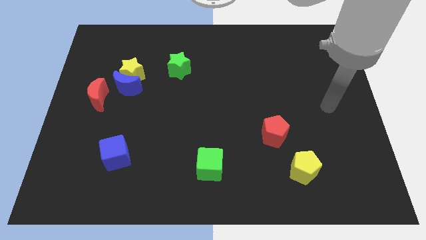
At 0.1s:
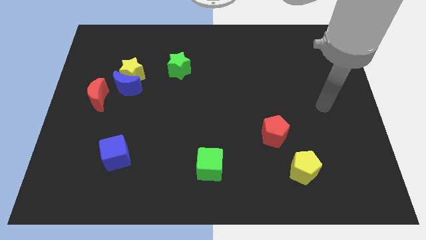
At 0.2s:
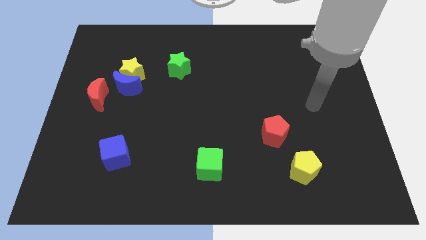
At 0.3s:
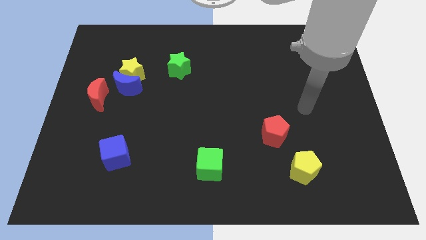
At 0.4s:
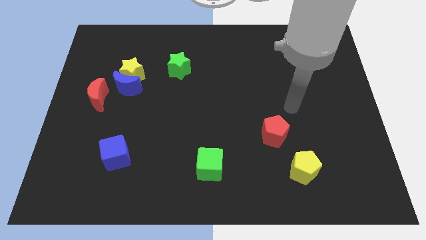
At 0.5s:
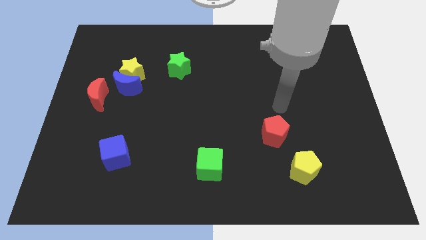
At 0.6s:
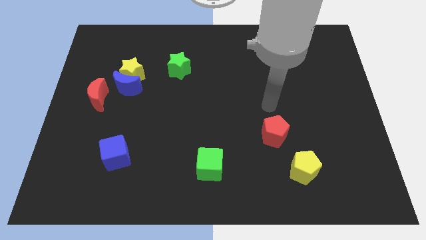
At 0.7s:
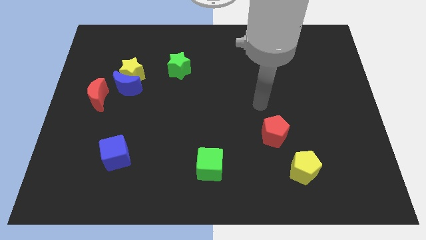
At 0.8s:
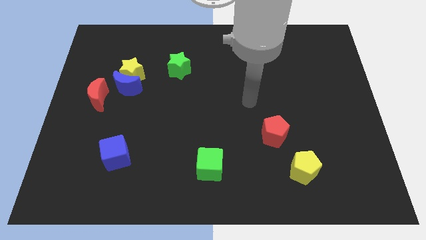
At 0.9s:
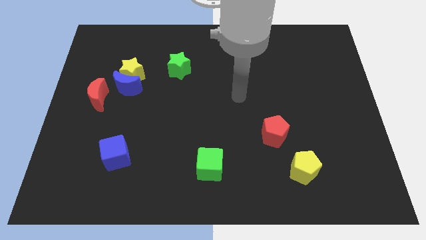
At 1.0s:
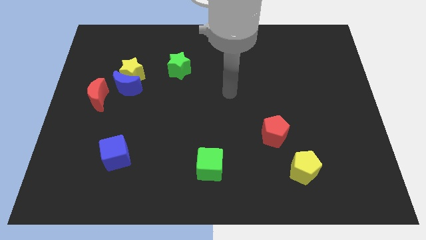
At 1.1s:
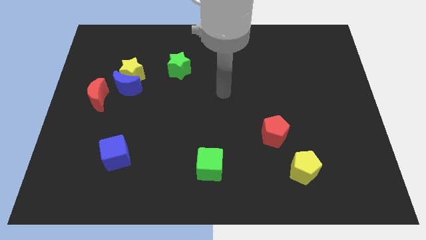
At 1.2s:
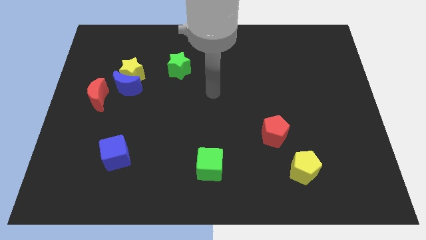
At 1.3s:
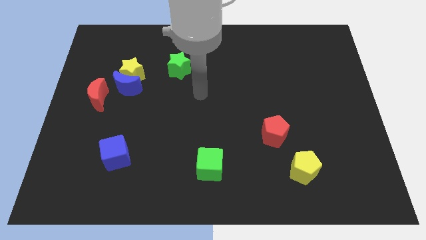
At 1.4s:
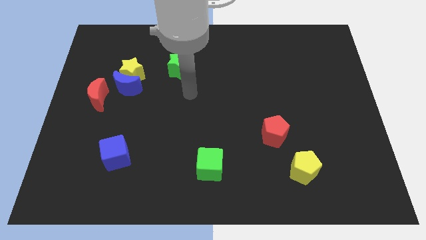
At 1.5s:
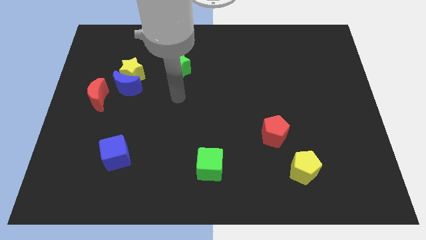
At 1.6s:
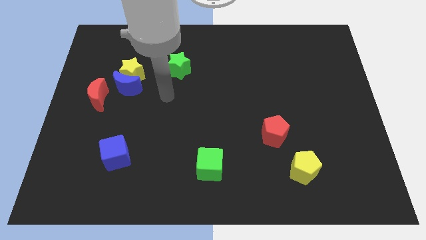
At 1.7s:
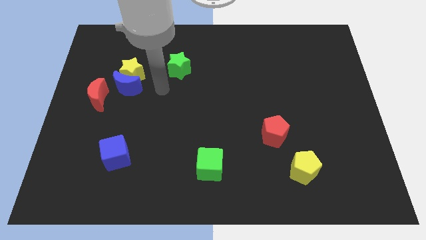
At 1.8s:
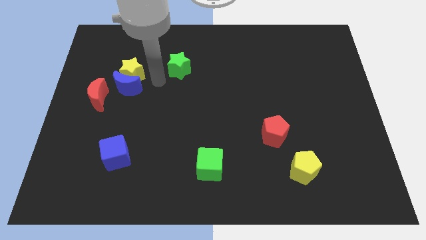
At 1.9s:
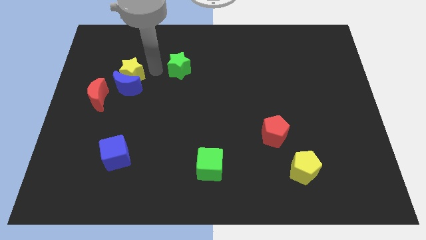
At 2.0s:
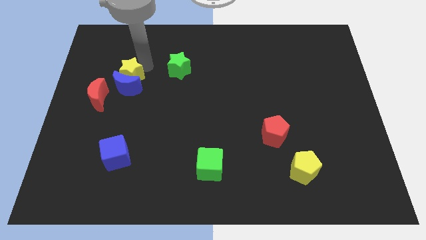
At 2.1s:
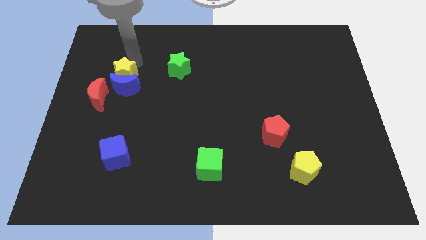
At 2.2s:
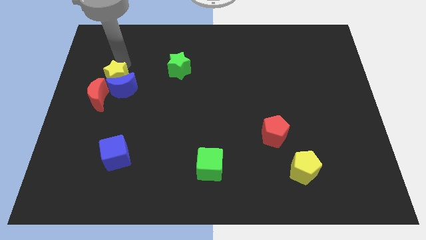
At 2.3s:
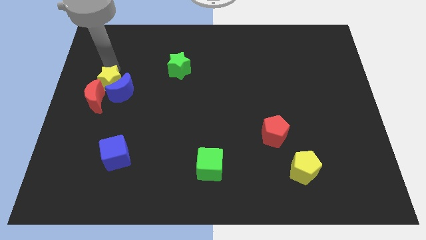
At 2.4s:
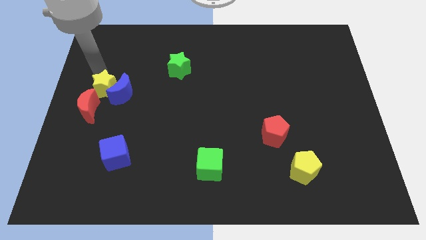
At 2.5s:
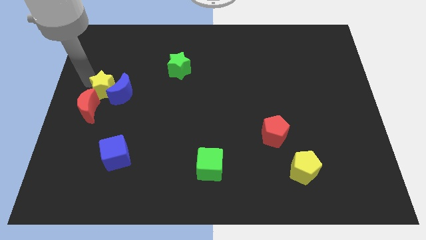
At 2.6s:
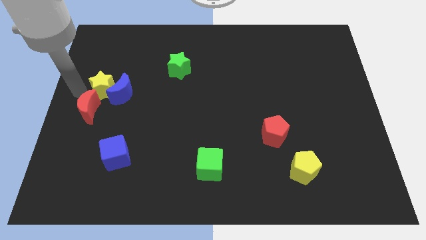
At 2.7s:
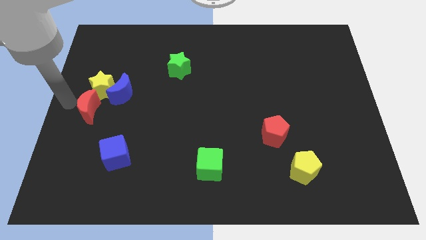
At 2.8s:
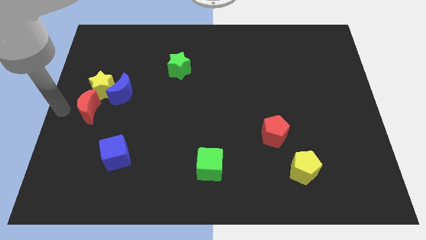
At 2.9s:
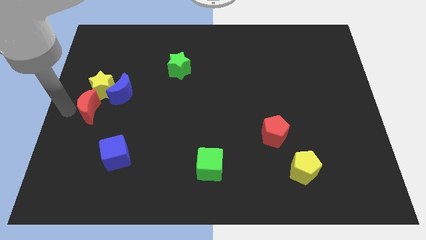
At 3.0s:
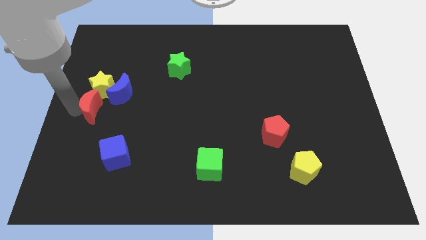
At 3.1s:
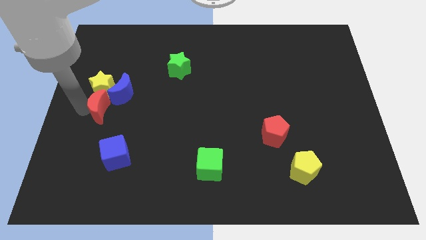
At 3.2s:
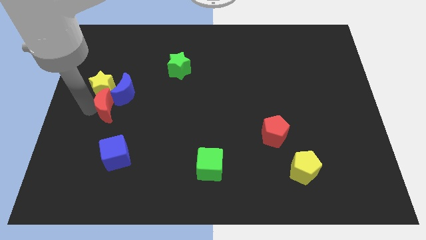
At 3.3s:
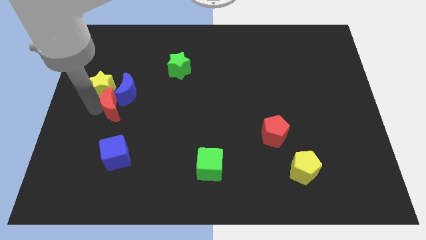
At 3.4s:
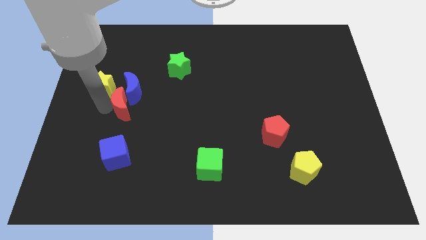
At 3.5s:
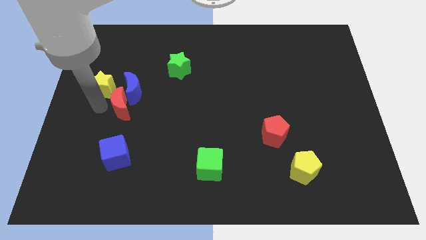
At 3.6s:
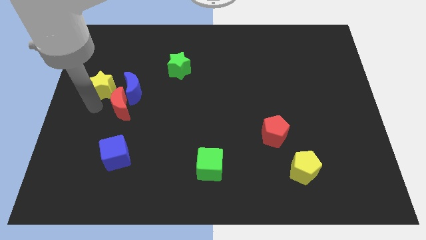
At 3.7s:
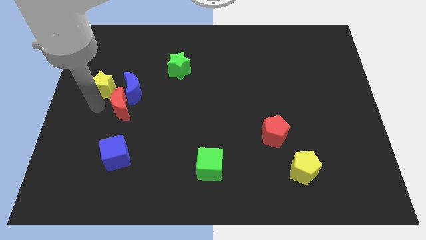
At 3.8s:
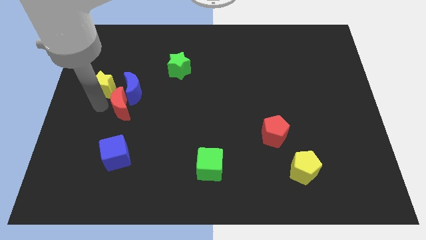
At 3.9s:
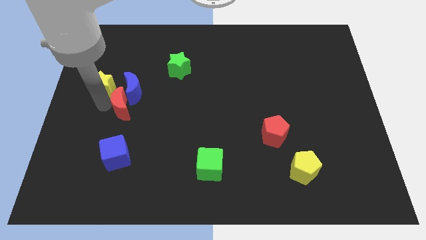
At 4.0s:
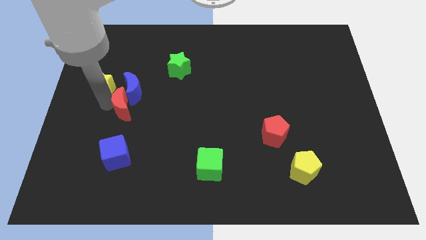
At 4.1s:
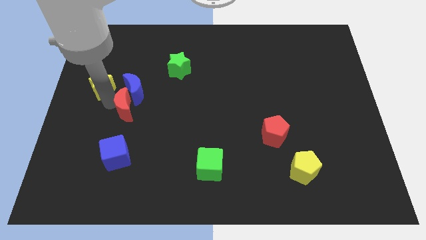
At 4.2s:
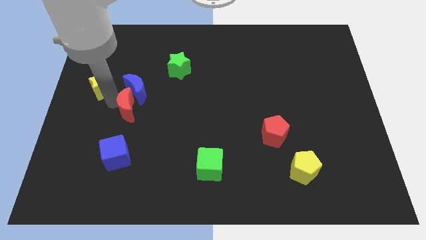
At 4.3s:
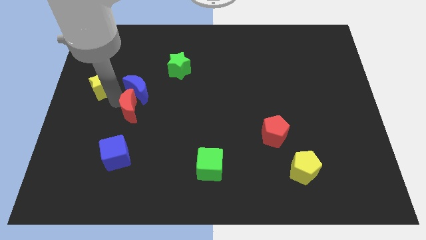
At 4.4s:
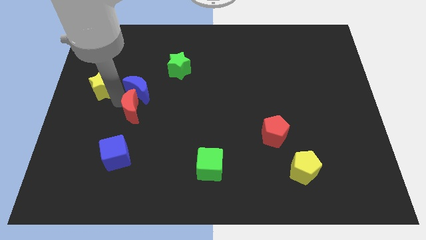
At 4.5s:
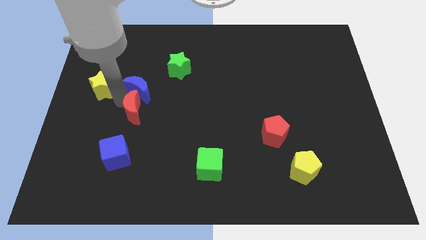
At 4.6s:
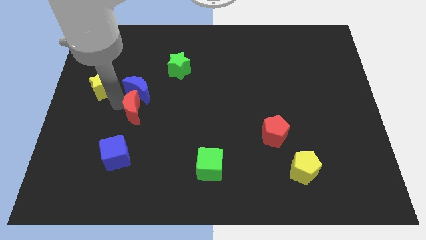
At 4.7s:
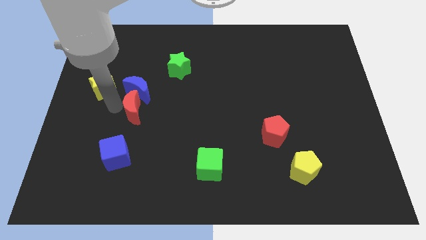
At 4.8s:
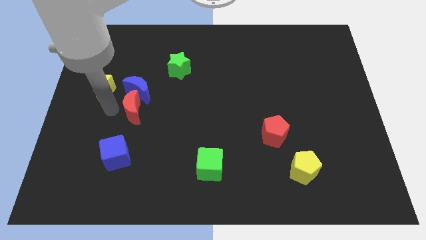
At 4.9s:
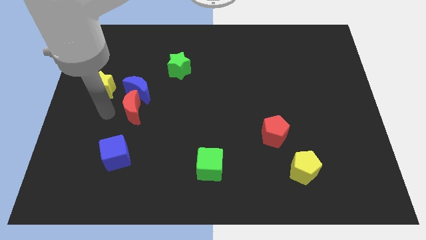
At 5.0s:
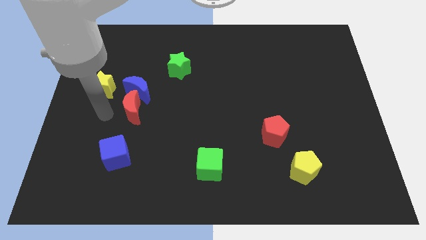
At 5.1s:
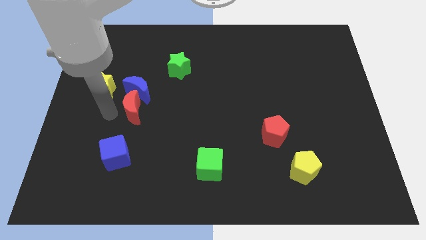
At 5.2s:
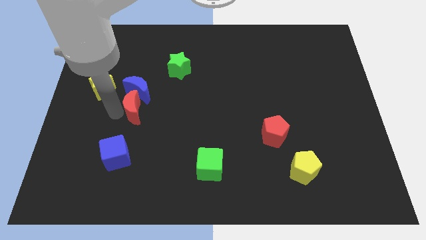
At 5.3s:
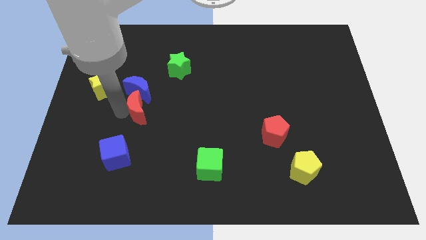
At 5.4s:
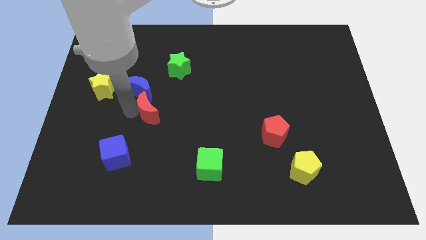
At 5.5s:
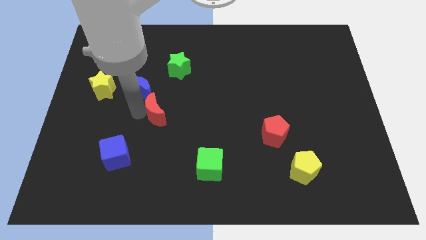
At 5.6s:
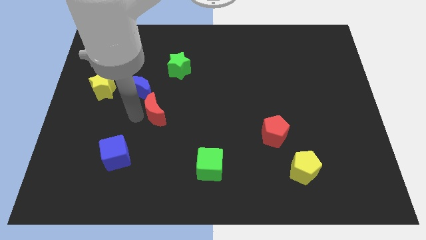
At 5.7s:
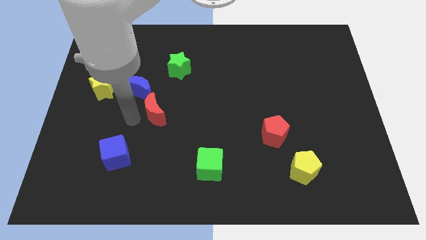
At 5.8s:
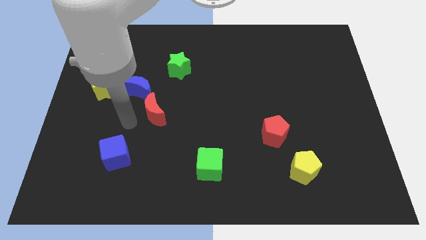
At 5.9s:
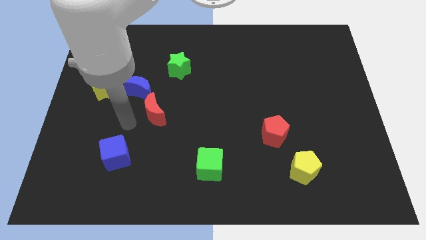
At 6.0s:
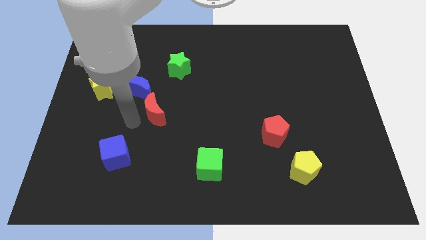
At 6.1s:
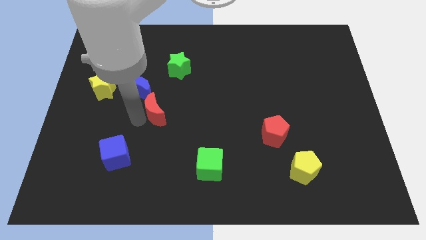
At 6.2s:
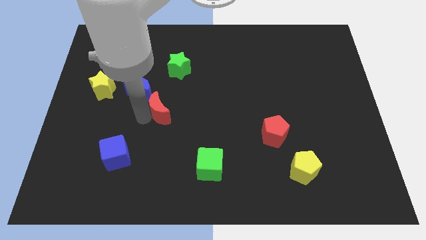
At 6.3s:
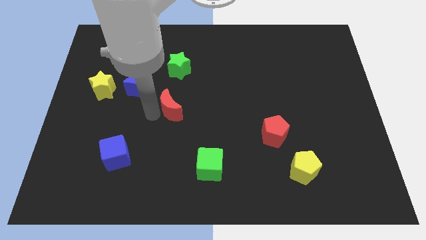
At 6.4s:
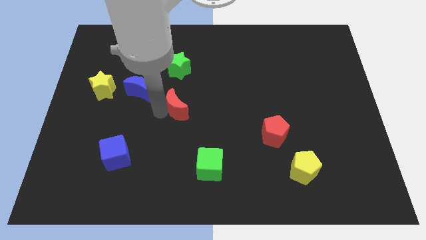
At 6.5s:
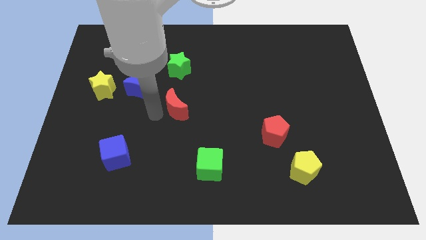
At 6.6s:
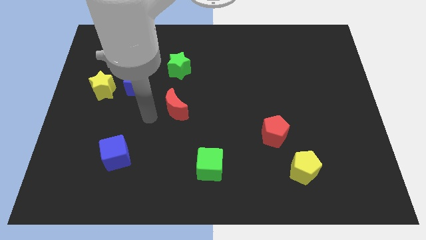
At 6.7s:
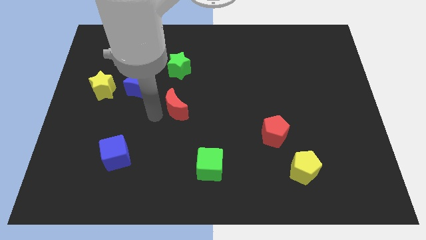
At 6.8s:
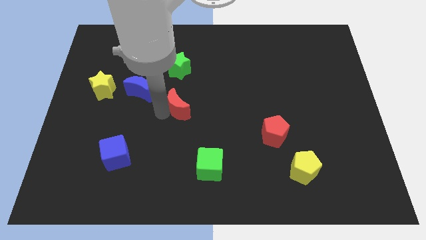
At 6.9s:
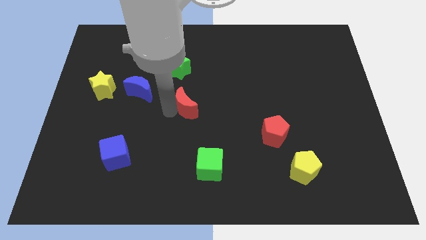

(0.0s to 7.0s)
slide the red moon right

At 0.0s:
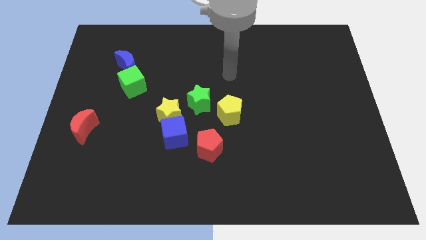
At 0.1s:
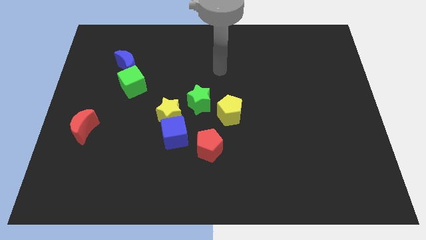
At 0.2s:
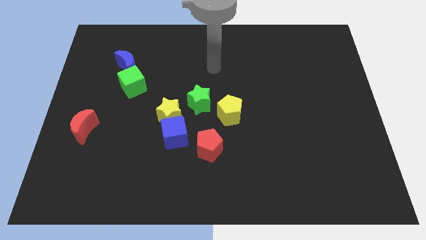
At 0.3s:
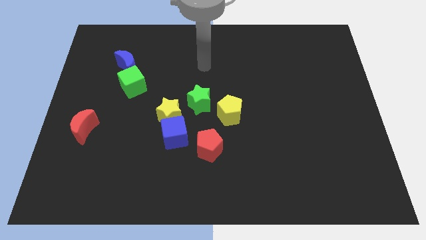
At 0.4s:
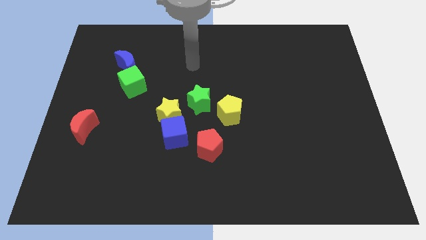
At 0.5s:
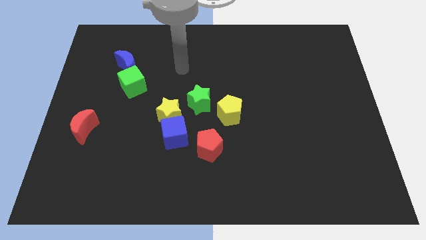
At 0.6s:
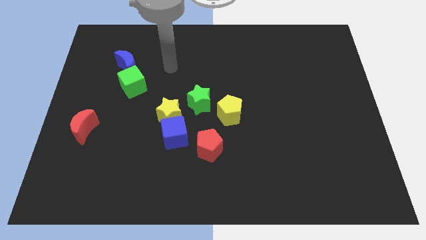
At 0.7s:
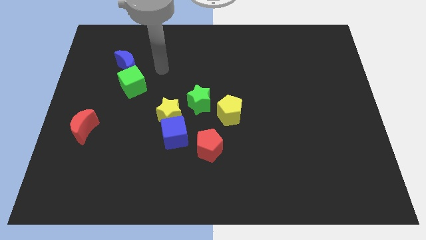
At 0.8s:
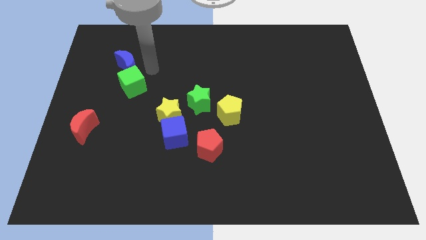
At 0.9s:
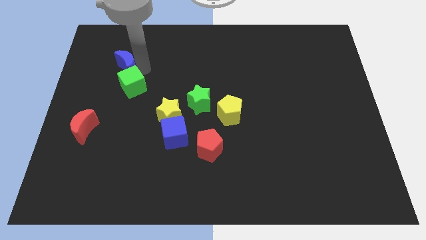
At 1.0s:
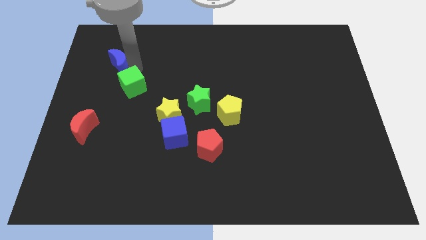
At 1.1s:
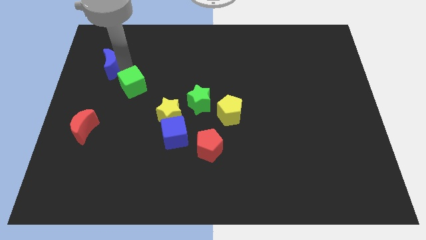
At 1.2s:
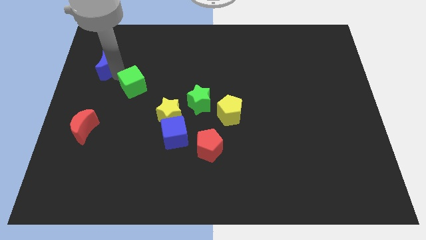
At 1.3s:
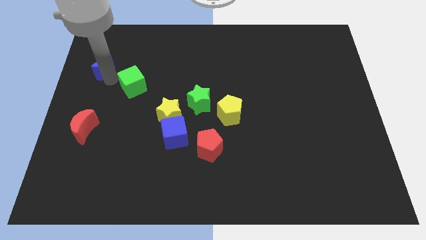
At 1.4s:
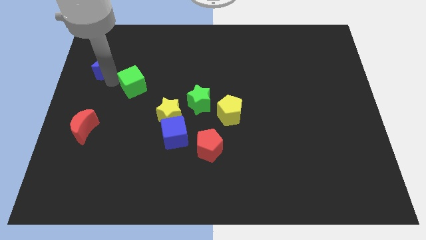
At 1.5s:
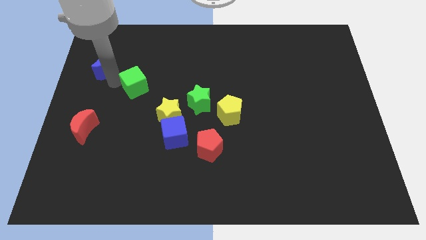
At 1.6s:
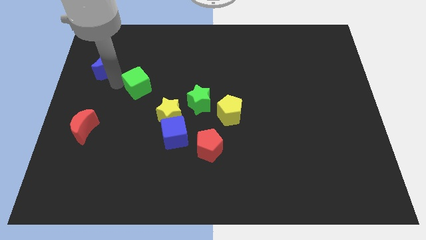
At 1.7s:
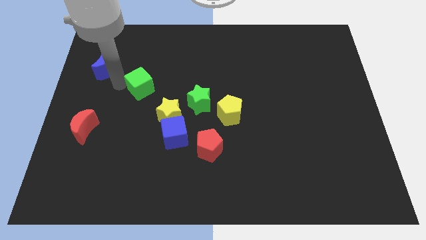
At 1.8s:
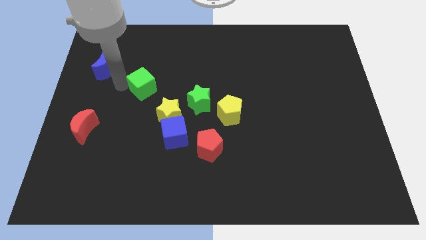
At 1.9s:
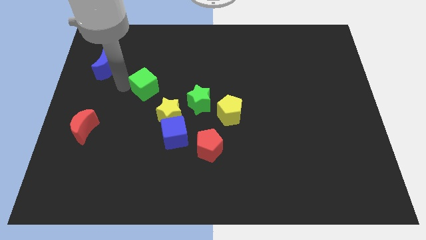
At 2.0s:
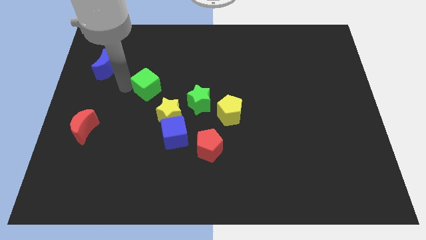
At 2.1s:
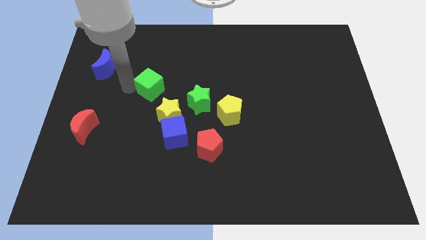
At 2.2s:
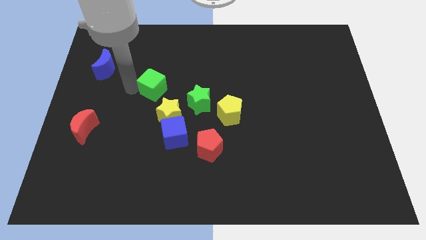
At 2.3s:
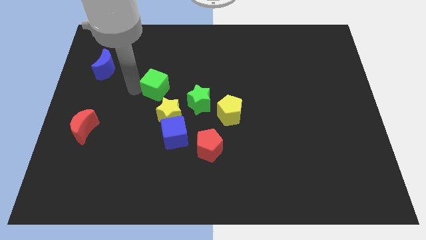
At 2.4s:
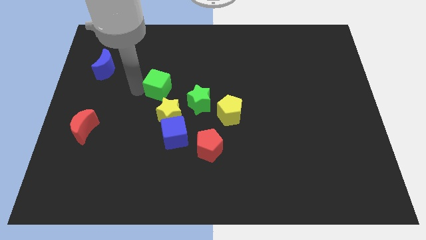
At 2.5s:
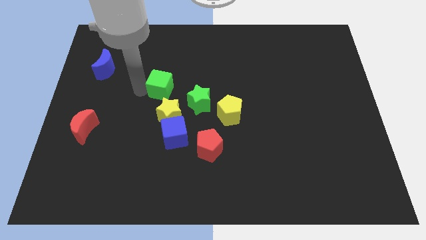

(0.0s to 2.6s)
slightly move the green cube right
